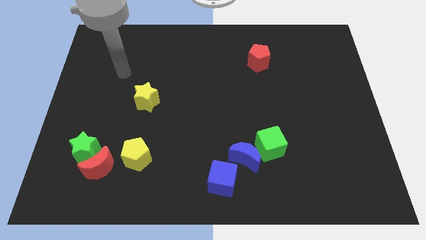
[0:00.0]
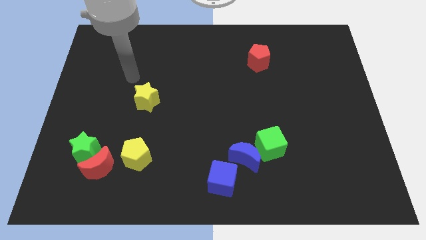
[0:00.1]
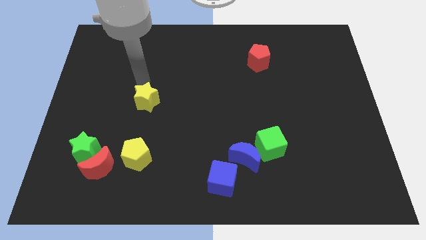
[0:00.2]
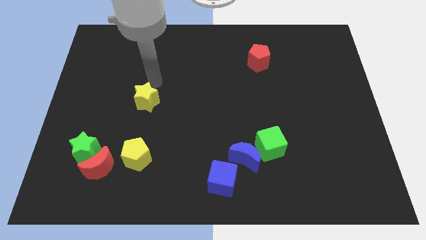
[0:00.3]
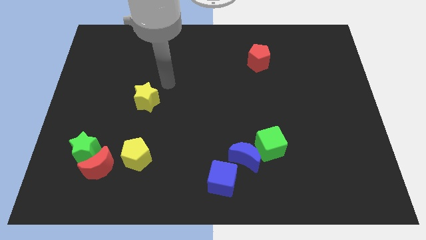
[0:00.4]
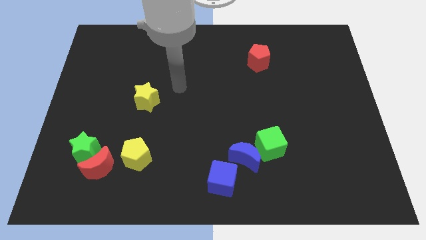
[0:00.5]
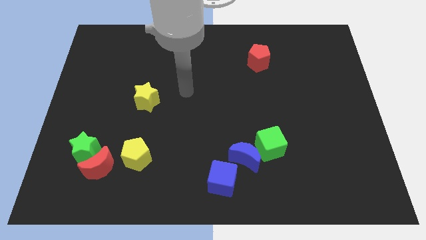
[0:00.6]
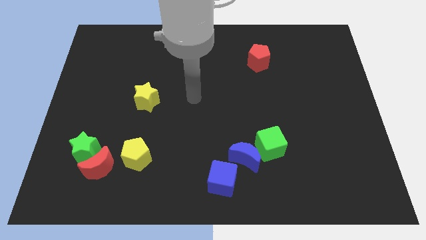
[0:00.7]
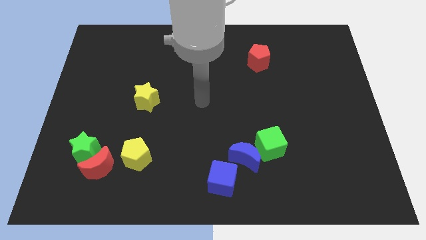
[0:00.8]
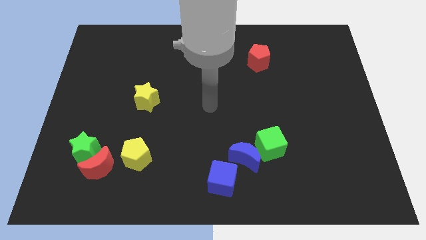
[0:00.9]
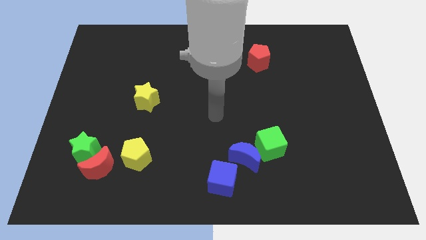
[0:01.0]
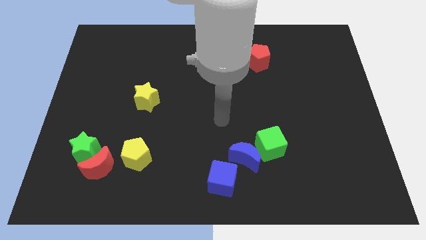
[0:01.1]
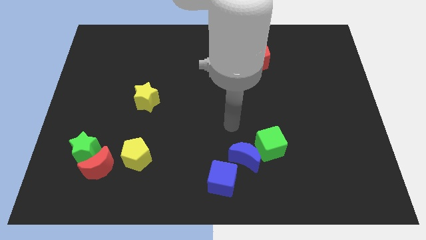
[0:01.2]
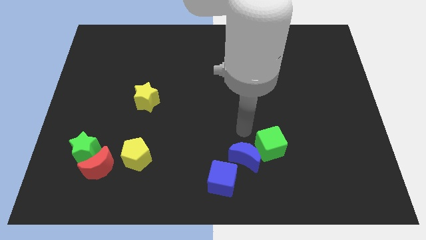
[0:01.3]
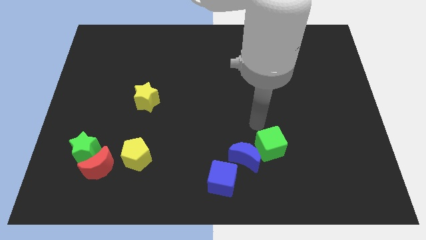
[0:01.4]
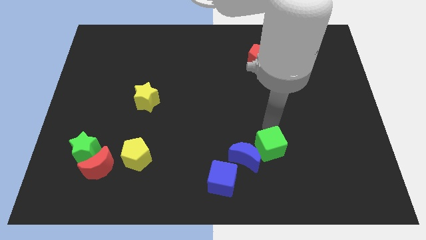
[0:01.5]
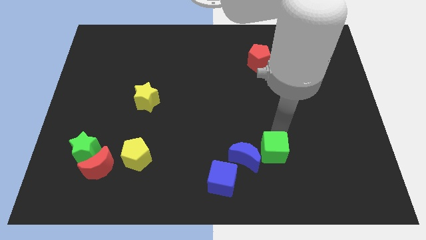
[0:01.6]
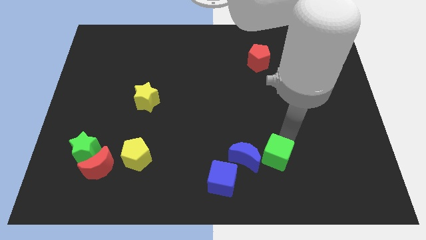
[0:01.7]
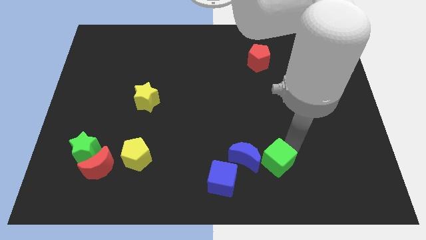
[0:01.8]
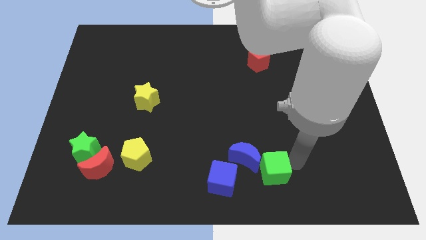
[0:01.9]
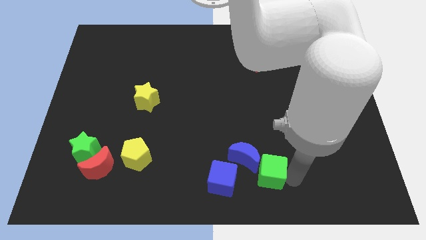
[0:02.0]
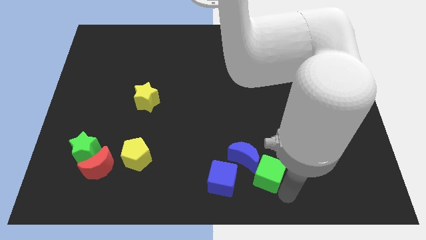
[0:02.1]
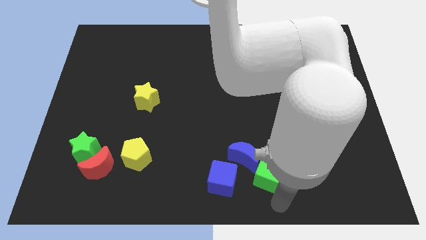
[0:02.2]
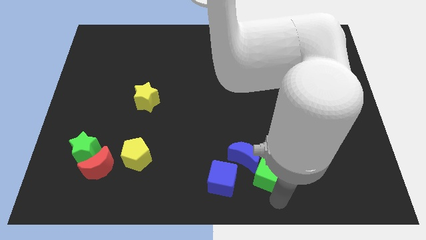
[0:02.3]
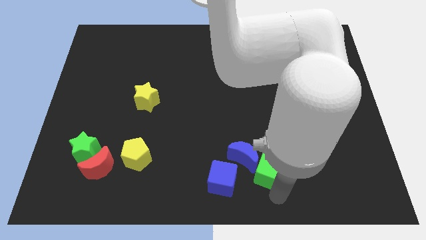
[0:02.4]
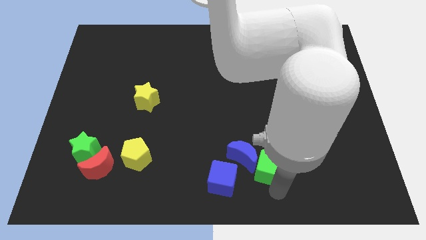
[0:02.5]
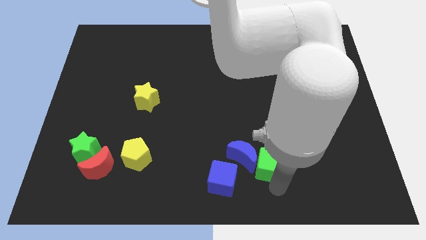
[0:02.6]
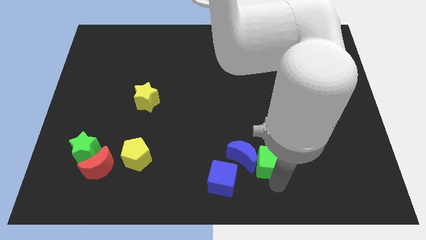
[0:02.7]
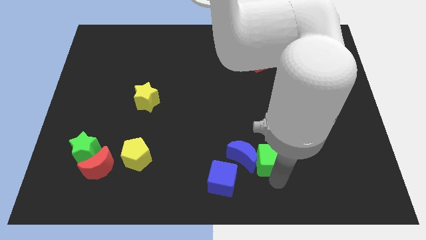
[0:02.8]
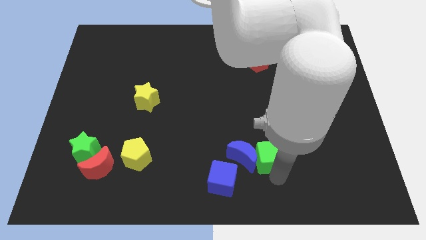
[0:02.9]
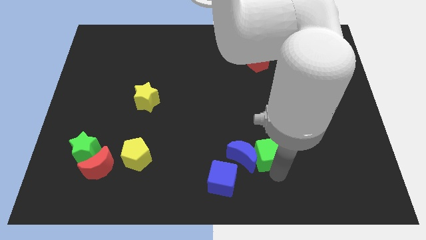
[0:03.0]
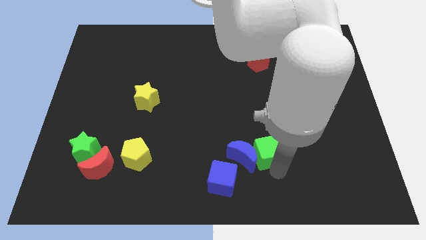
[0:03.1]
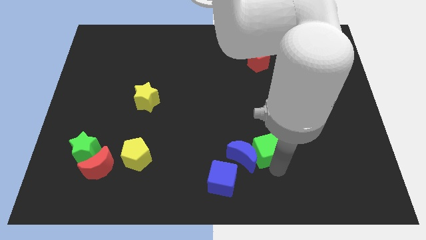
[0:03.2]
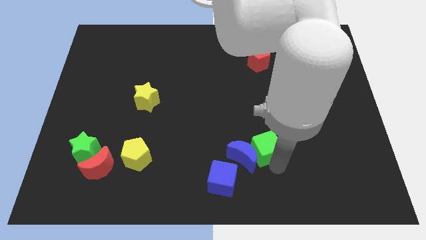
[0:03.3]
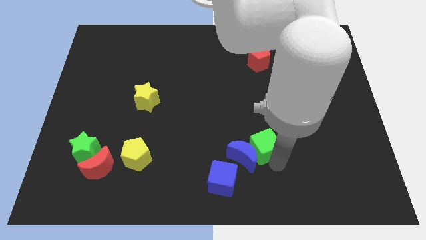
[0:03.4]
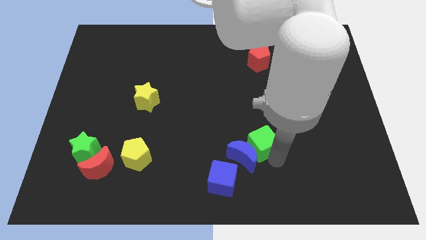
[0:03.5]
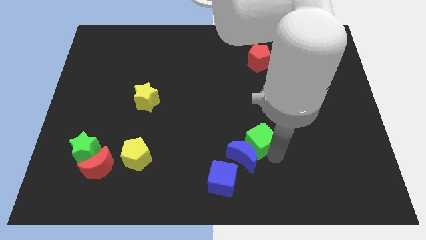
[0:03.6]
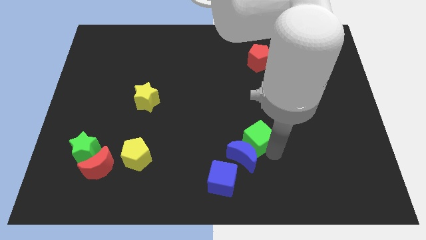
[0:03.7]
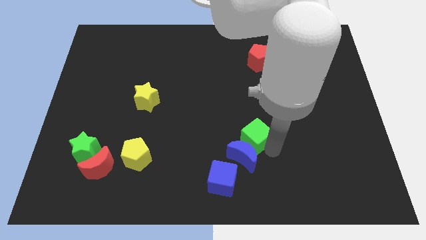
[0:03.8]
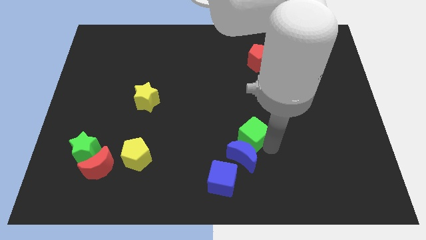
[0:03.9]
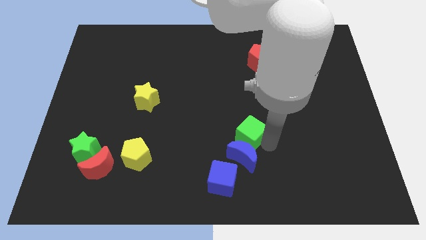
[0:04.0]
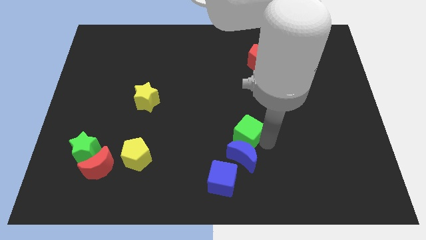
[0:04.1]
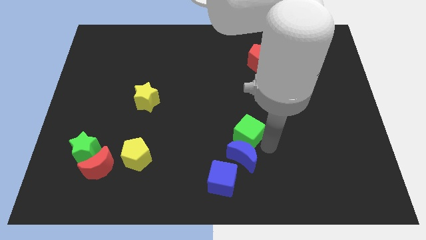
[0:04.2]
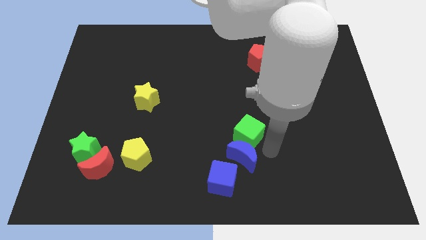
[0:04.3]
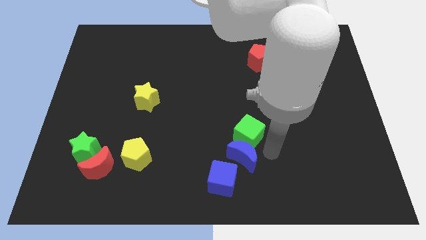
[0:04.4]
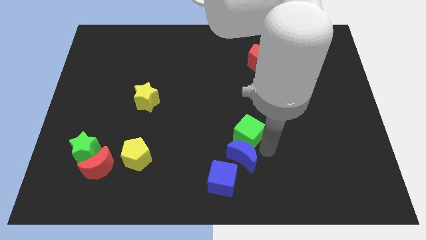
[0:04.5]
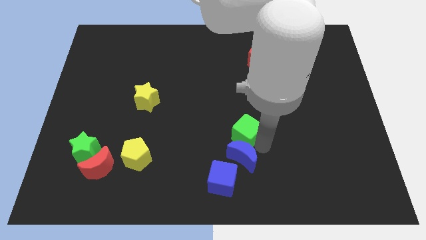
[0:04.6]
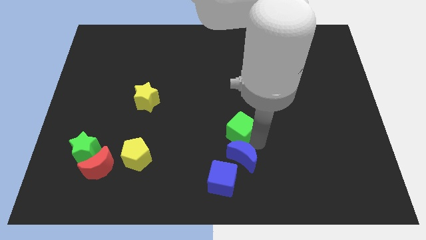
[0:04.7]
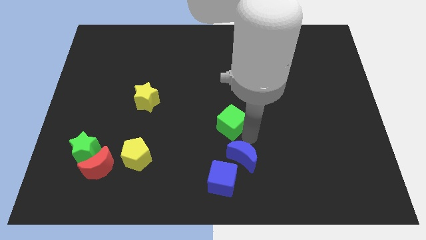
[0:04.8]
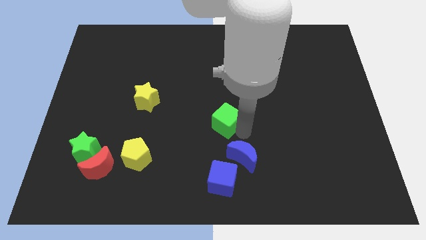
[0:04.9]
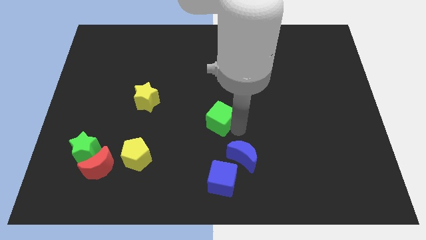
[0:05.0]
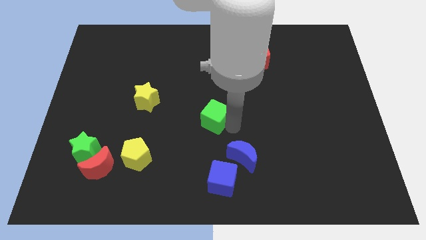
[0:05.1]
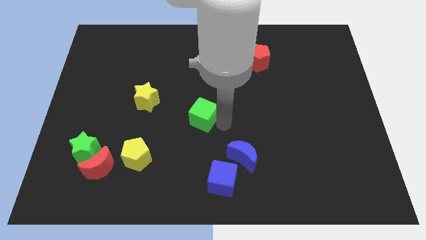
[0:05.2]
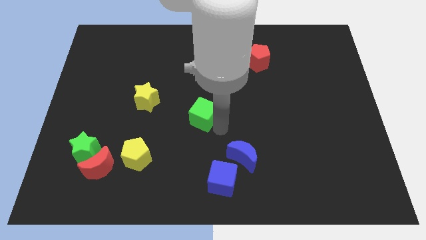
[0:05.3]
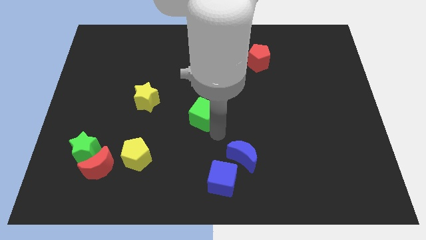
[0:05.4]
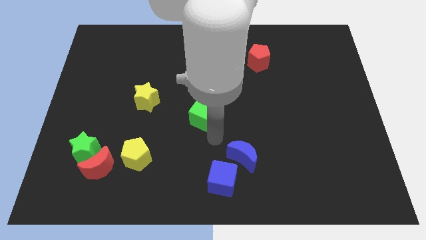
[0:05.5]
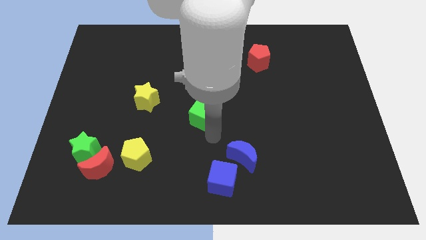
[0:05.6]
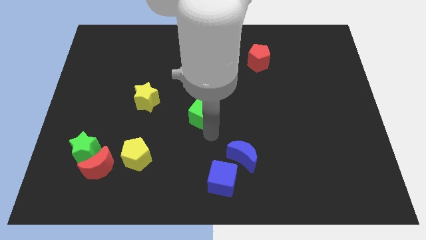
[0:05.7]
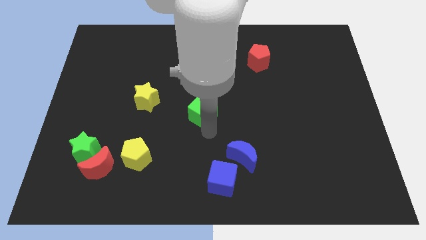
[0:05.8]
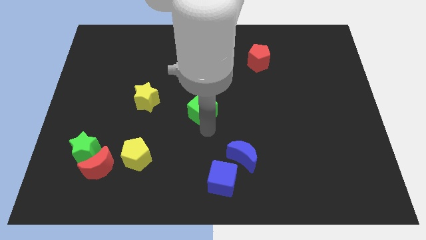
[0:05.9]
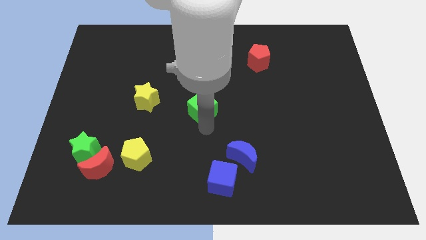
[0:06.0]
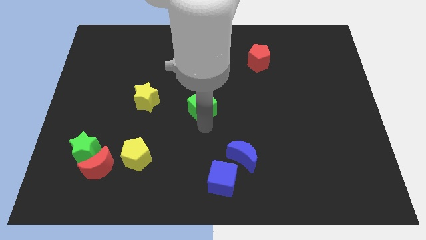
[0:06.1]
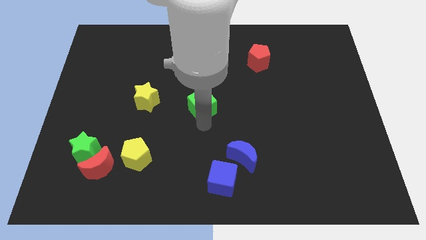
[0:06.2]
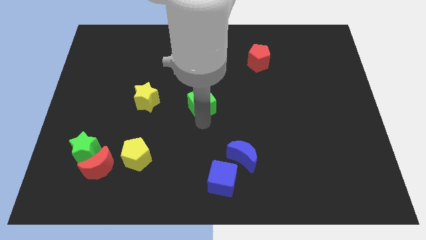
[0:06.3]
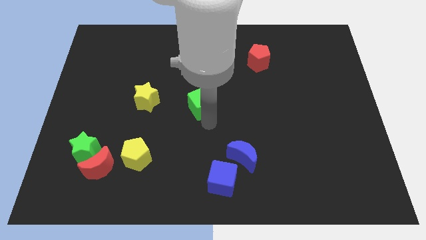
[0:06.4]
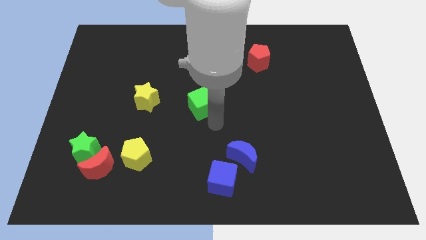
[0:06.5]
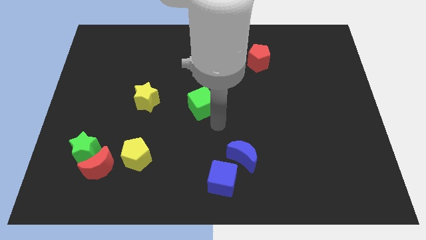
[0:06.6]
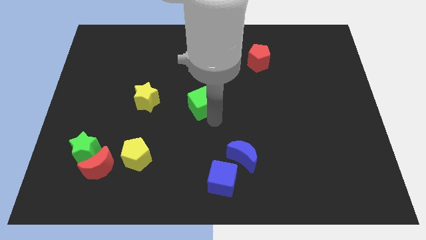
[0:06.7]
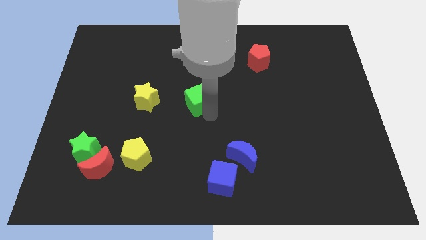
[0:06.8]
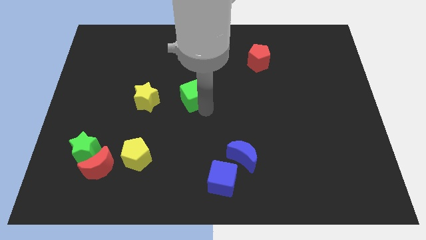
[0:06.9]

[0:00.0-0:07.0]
push the green cube upwards and then left

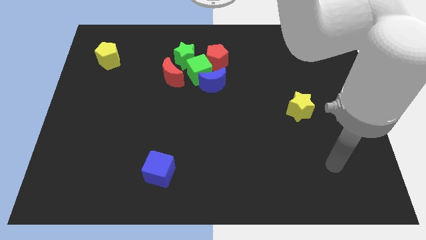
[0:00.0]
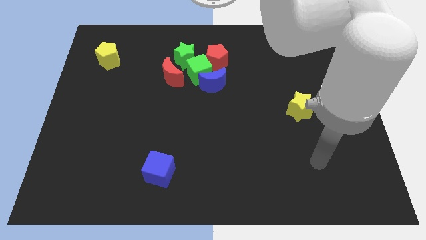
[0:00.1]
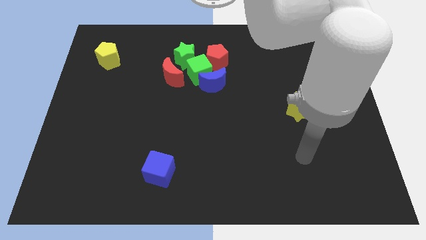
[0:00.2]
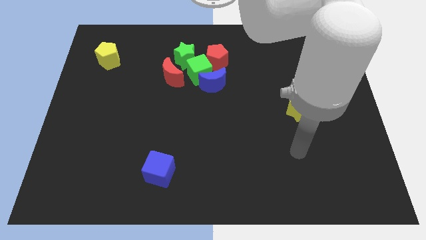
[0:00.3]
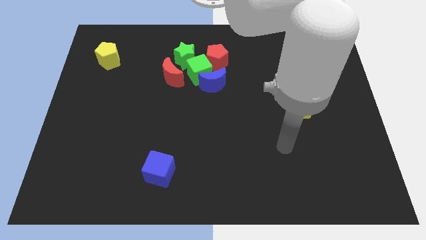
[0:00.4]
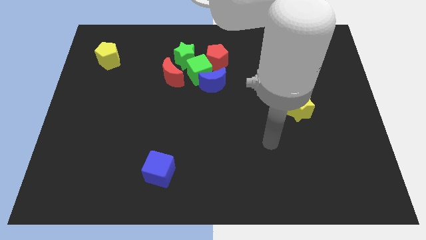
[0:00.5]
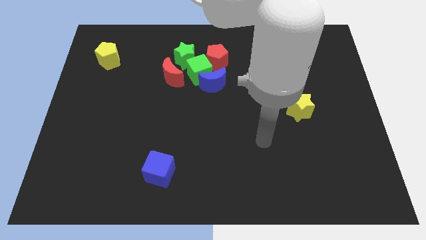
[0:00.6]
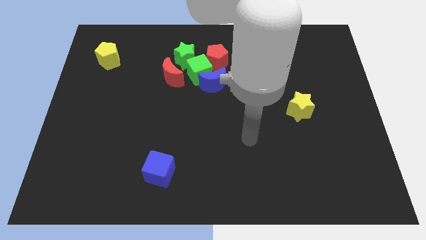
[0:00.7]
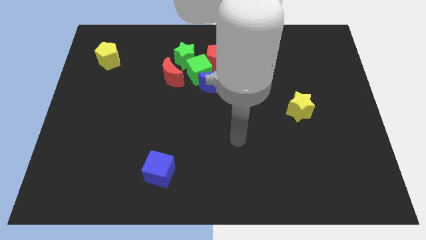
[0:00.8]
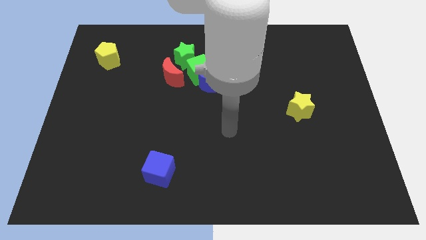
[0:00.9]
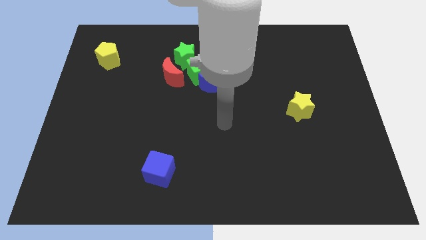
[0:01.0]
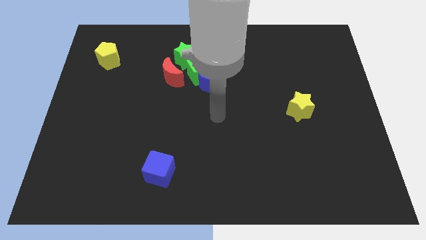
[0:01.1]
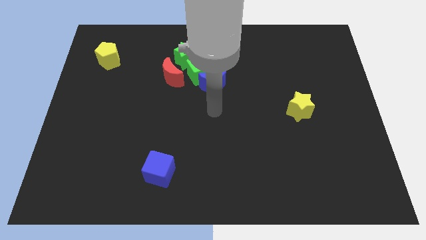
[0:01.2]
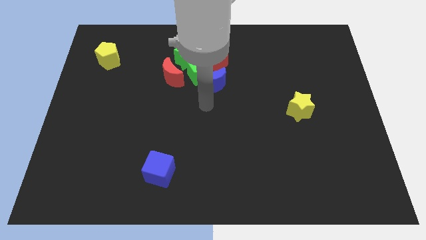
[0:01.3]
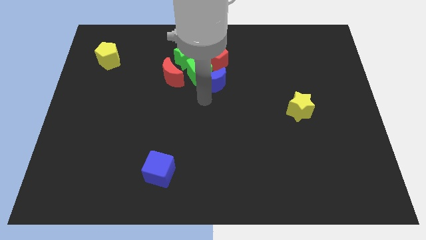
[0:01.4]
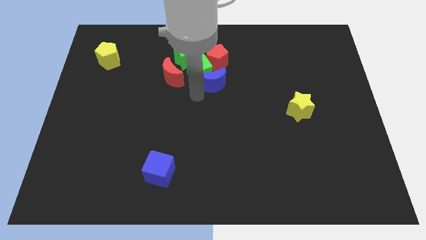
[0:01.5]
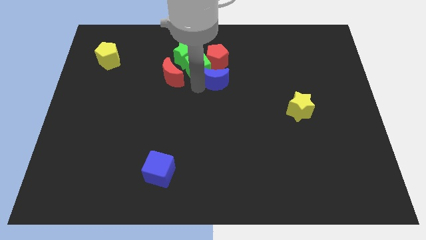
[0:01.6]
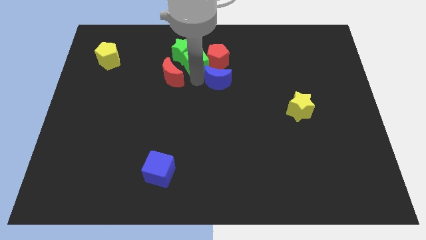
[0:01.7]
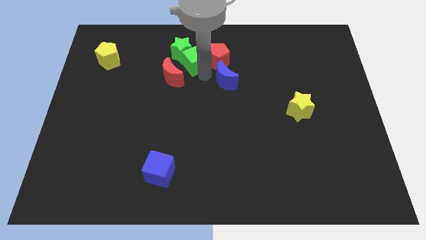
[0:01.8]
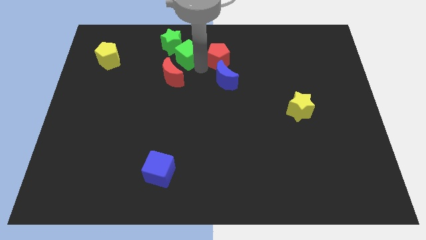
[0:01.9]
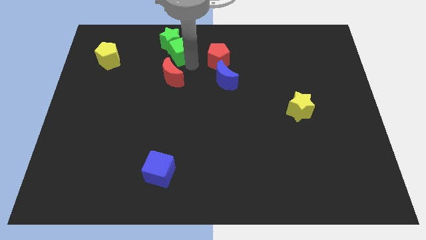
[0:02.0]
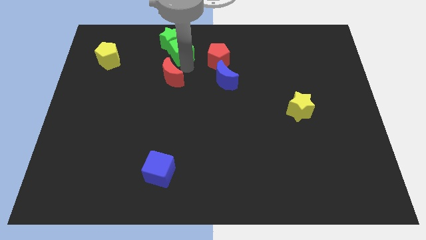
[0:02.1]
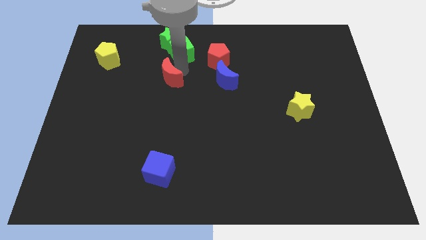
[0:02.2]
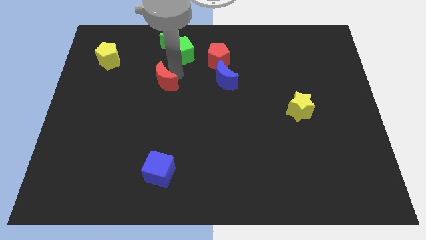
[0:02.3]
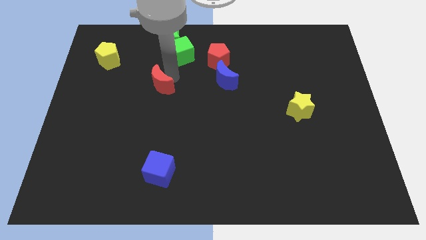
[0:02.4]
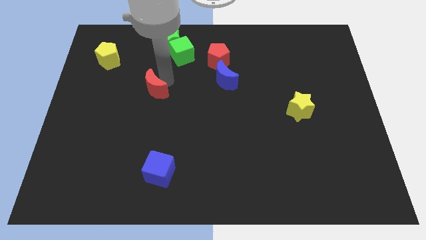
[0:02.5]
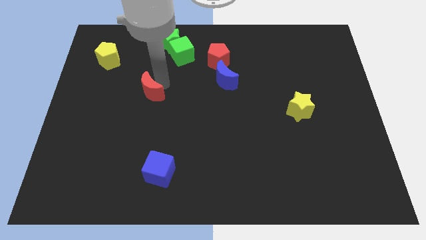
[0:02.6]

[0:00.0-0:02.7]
slide the red moon a bit down and to the left diagonally
